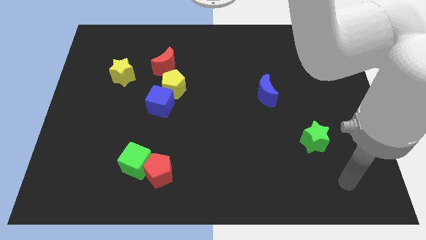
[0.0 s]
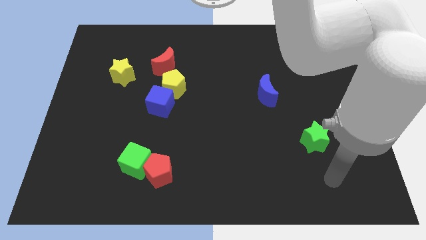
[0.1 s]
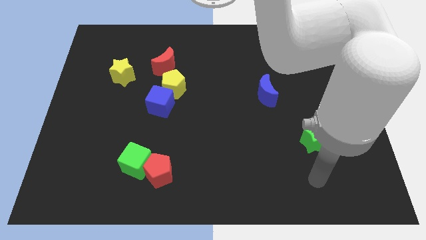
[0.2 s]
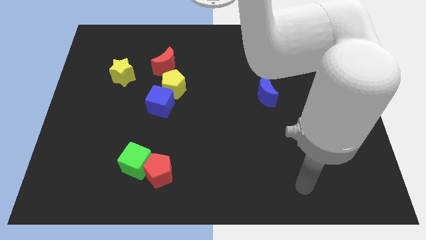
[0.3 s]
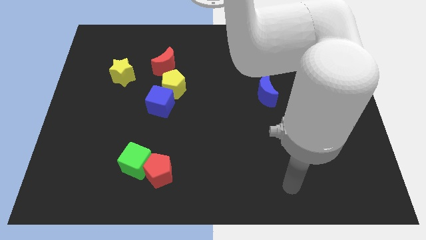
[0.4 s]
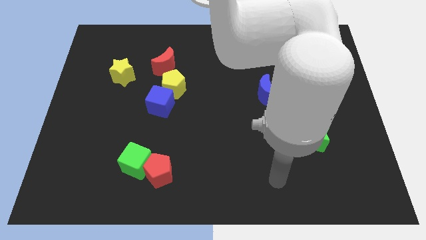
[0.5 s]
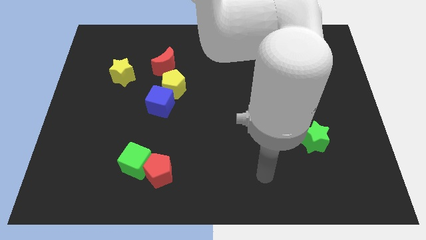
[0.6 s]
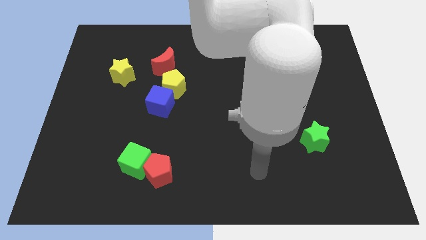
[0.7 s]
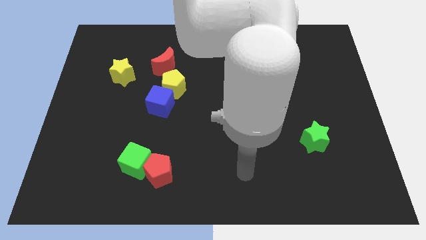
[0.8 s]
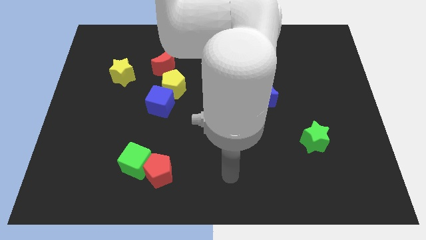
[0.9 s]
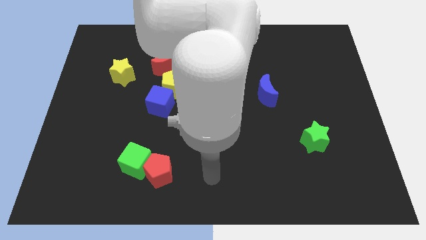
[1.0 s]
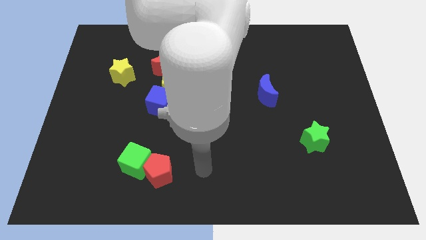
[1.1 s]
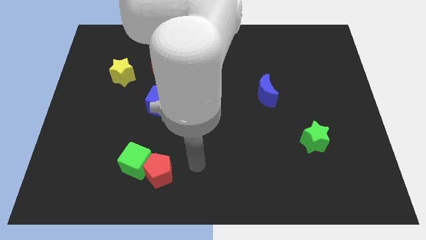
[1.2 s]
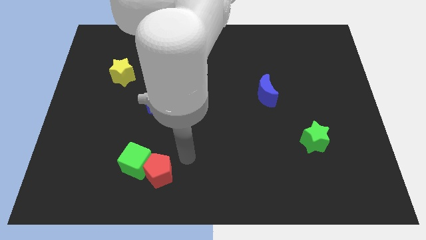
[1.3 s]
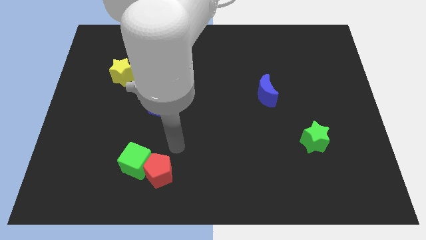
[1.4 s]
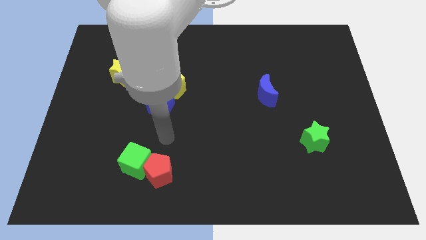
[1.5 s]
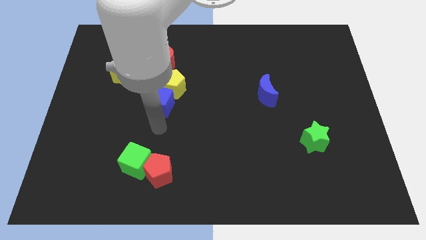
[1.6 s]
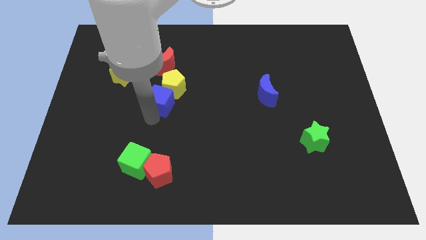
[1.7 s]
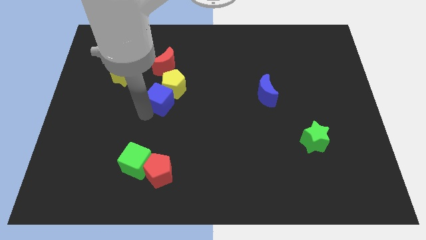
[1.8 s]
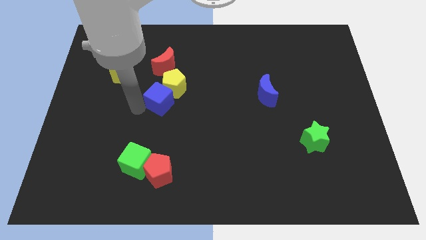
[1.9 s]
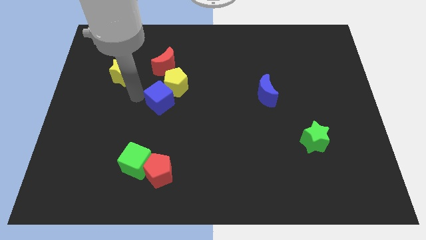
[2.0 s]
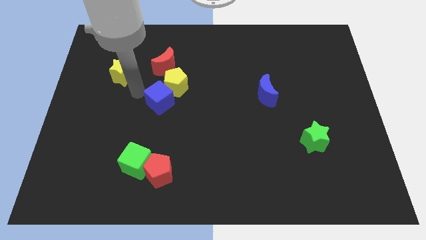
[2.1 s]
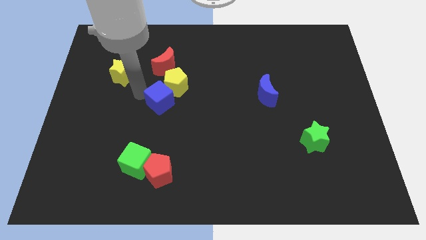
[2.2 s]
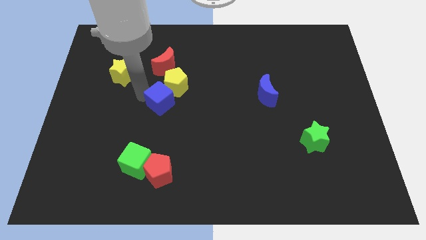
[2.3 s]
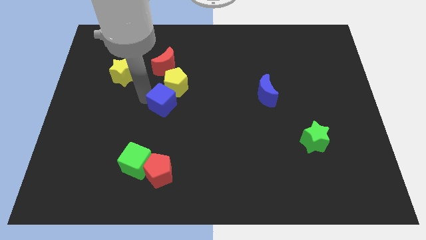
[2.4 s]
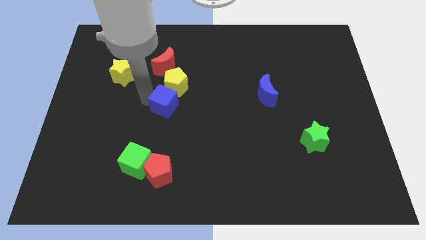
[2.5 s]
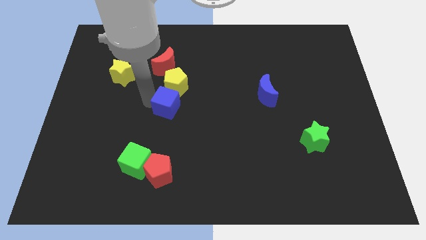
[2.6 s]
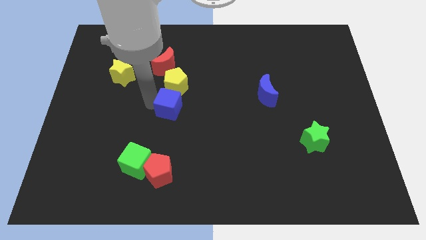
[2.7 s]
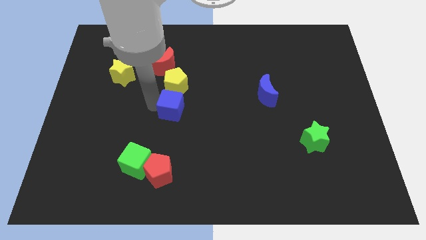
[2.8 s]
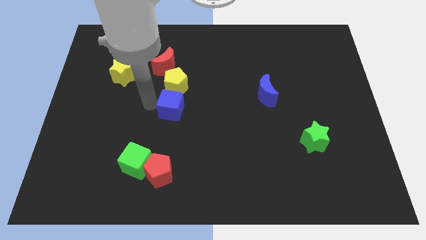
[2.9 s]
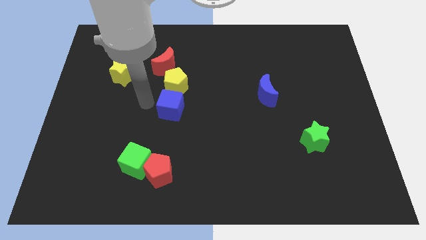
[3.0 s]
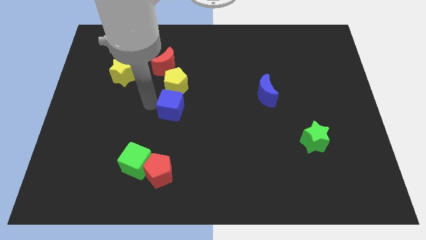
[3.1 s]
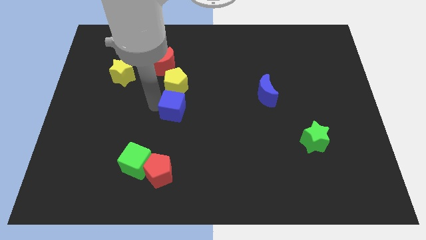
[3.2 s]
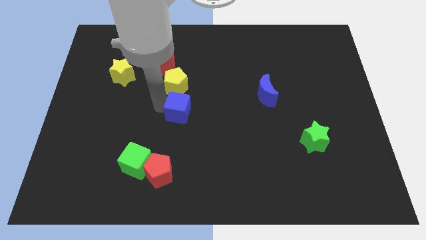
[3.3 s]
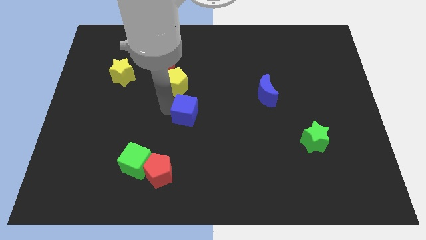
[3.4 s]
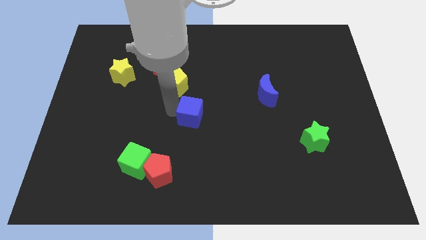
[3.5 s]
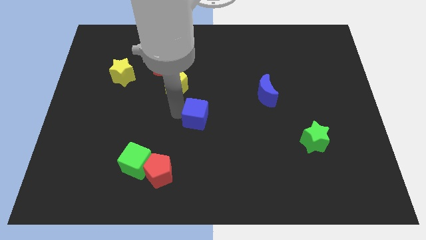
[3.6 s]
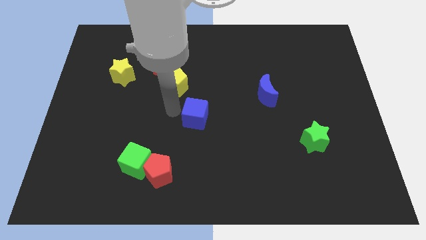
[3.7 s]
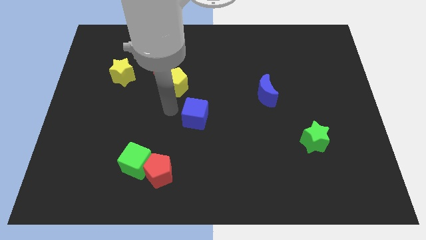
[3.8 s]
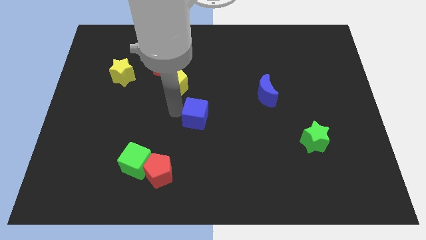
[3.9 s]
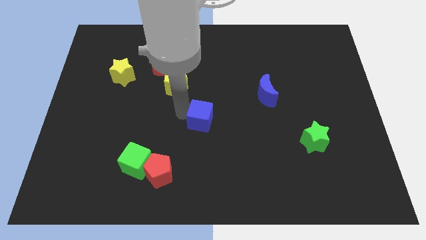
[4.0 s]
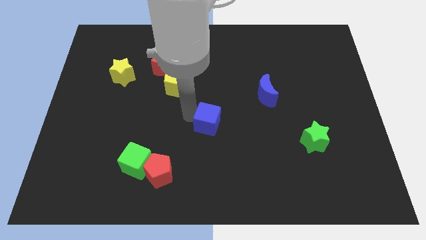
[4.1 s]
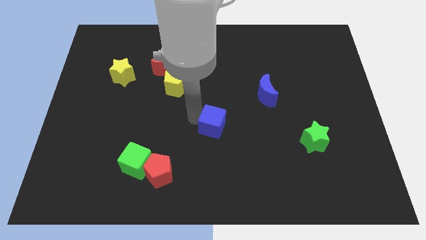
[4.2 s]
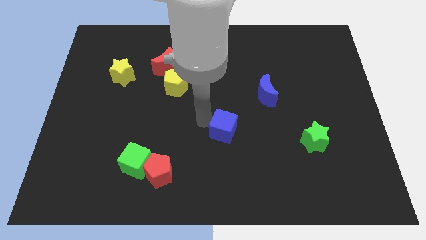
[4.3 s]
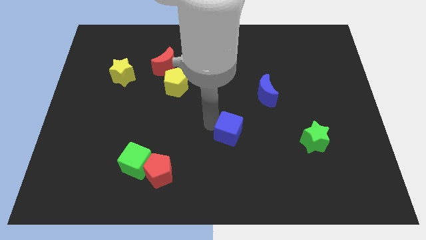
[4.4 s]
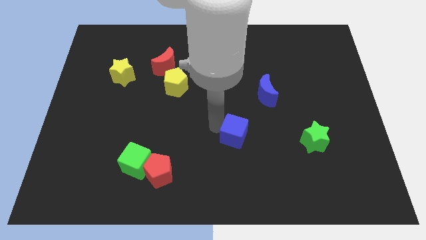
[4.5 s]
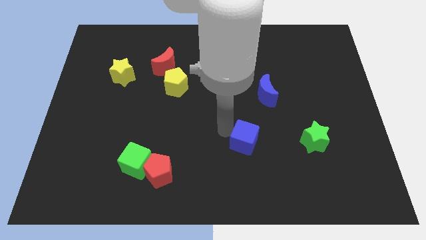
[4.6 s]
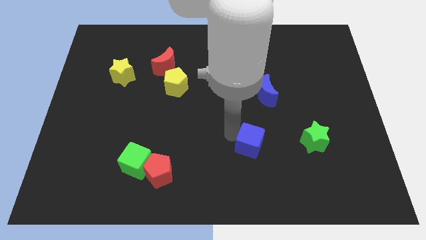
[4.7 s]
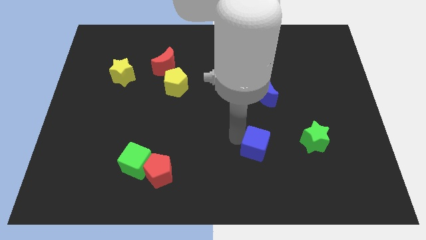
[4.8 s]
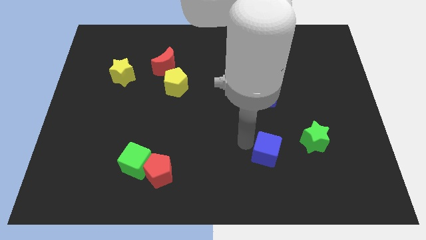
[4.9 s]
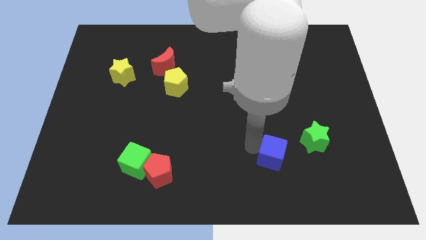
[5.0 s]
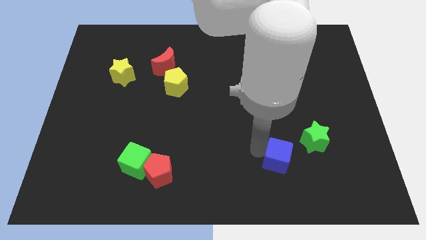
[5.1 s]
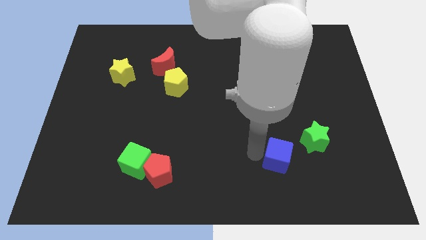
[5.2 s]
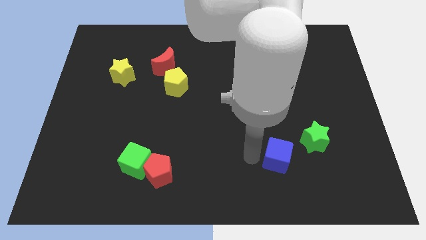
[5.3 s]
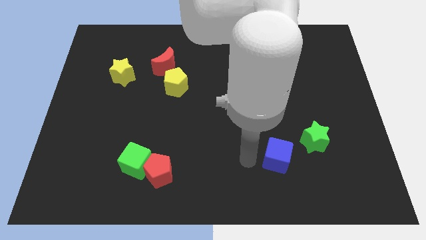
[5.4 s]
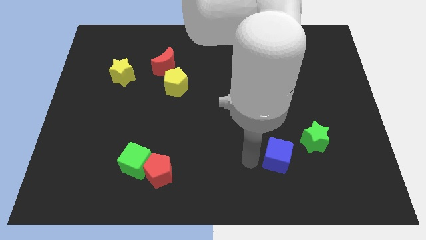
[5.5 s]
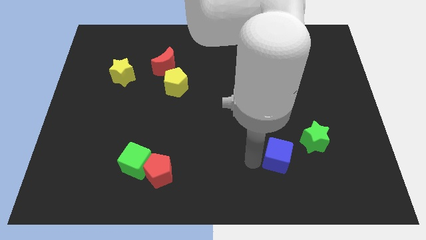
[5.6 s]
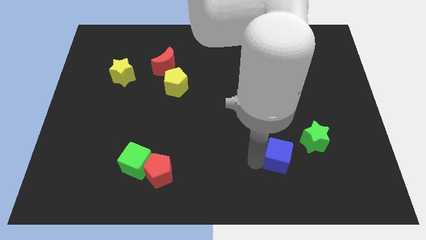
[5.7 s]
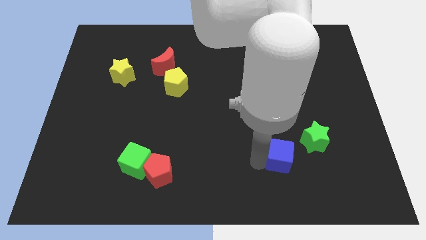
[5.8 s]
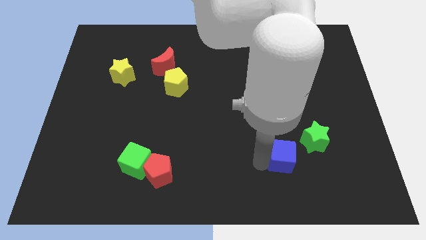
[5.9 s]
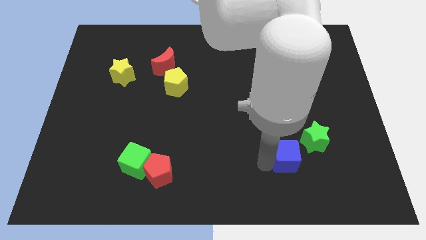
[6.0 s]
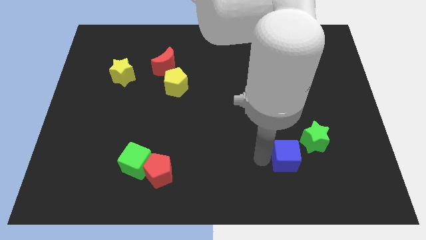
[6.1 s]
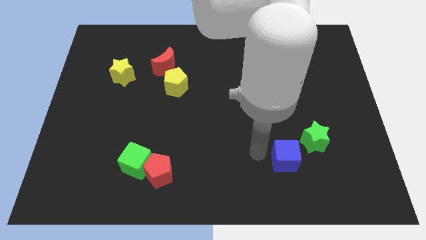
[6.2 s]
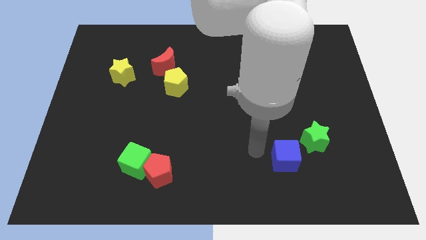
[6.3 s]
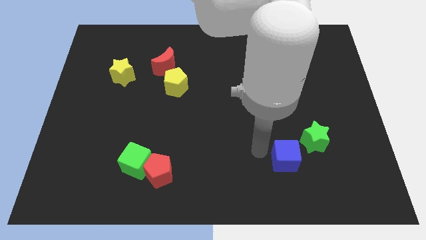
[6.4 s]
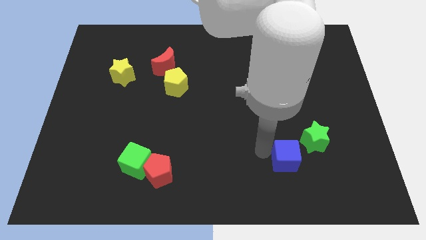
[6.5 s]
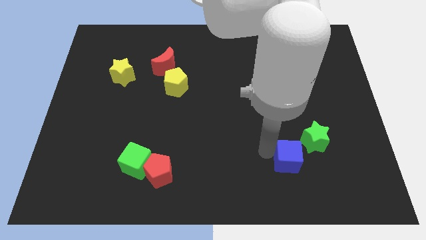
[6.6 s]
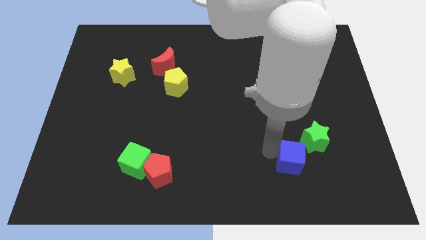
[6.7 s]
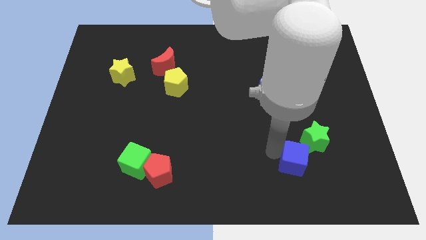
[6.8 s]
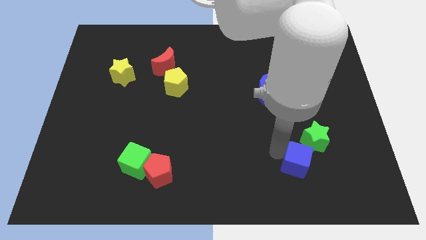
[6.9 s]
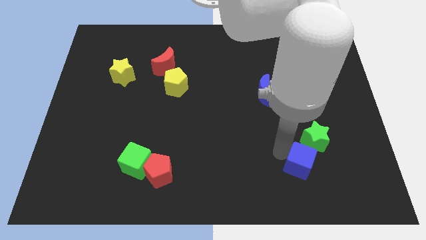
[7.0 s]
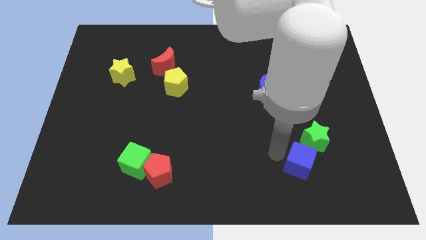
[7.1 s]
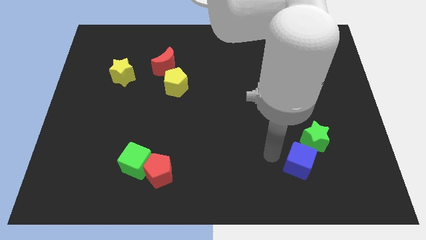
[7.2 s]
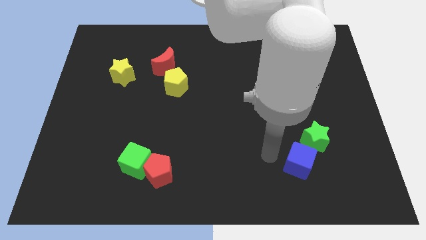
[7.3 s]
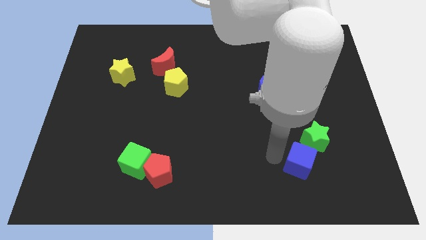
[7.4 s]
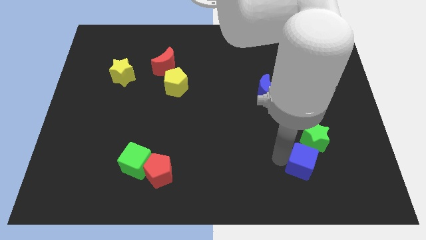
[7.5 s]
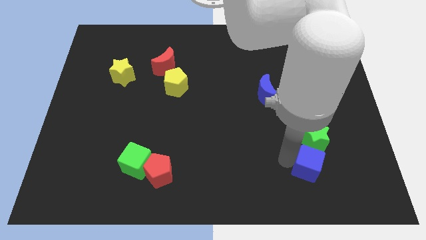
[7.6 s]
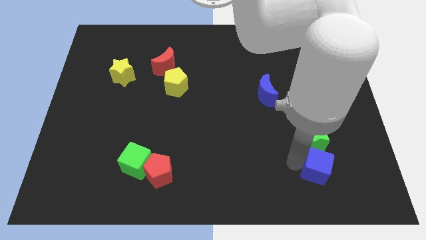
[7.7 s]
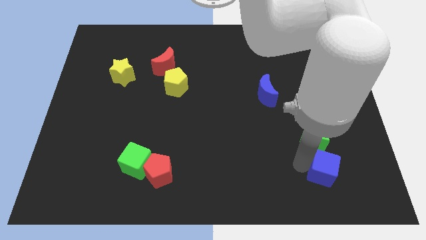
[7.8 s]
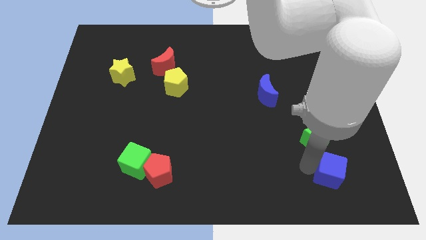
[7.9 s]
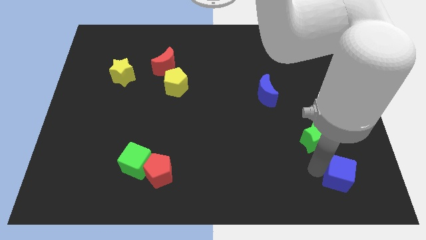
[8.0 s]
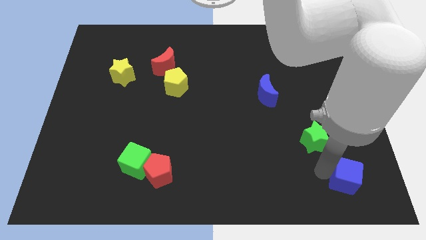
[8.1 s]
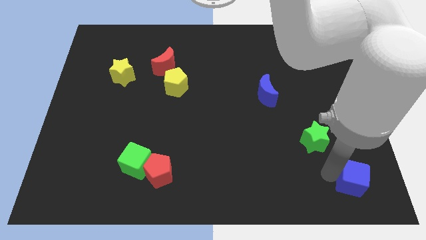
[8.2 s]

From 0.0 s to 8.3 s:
push the blue cube to the bottom right of the board
